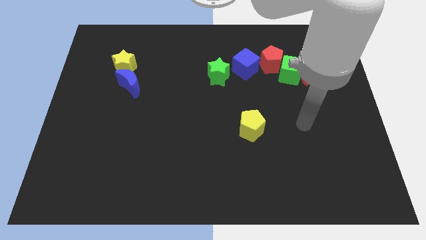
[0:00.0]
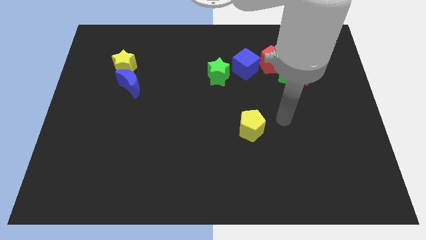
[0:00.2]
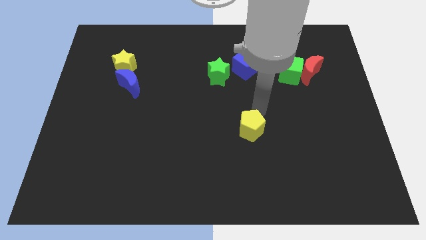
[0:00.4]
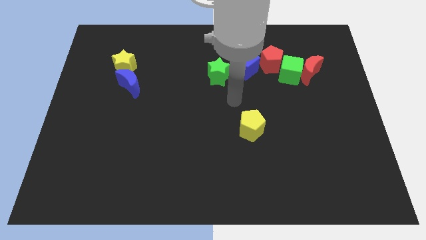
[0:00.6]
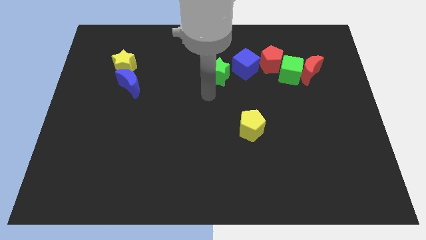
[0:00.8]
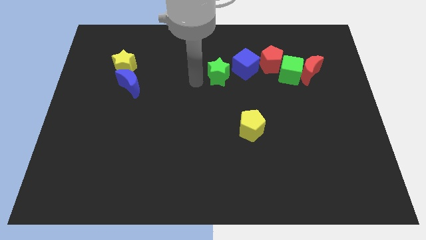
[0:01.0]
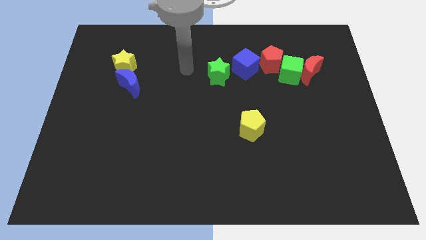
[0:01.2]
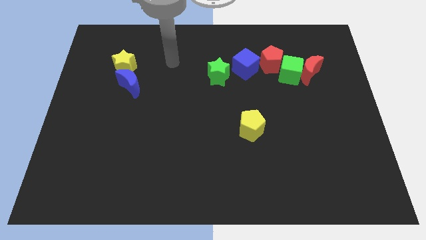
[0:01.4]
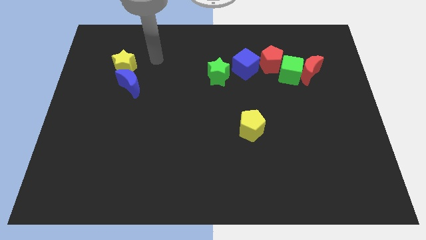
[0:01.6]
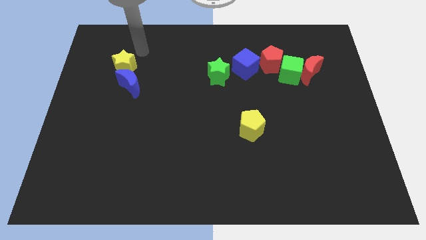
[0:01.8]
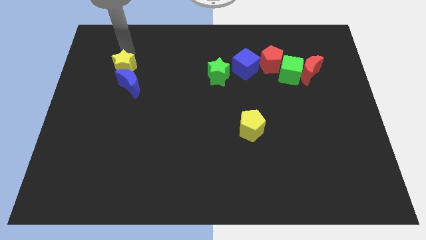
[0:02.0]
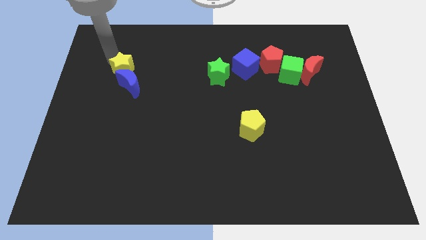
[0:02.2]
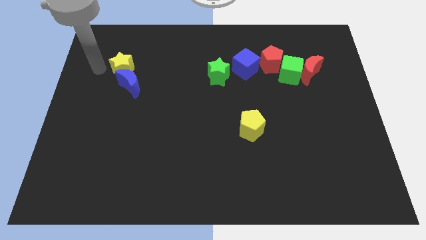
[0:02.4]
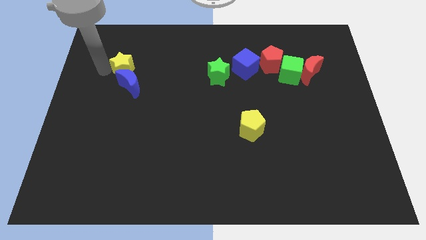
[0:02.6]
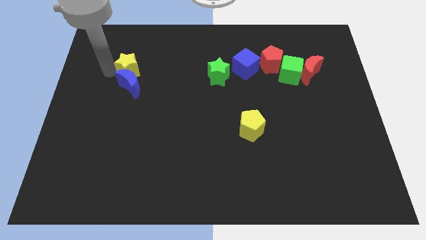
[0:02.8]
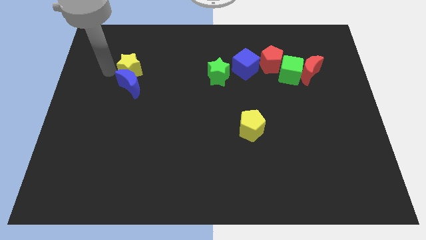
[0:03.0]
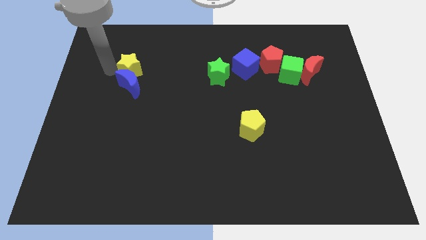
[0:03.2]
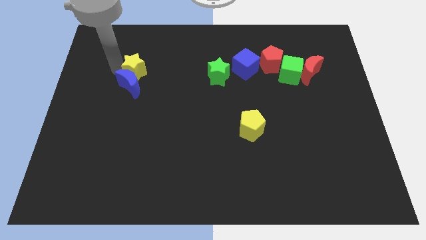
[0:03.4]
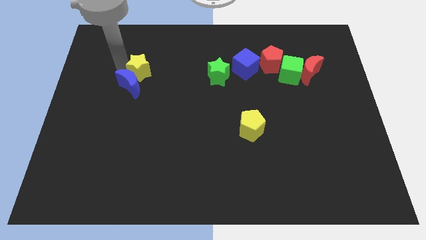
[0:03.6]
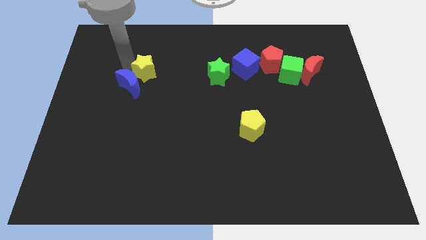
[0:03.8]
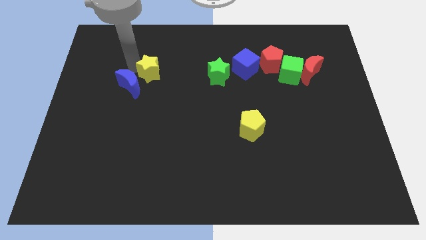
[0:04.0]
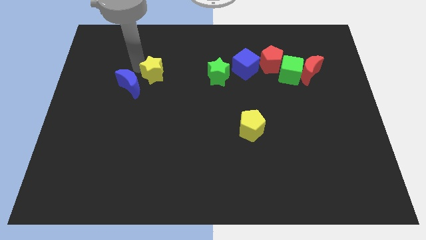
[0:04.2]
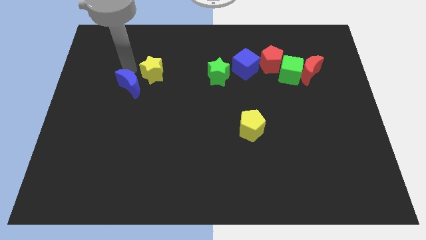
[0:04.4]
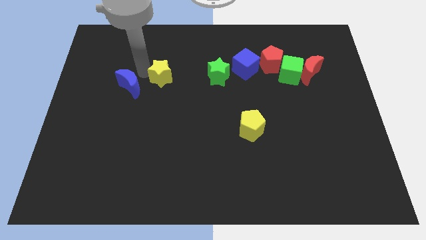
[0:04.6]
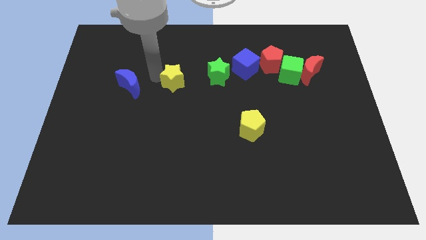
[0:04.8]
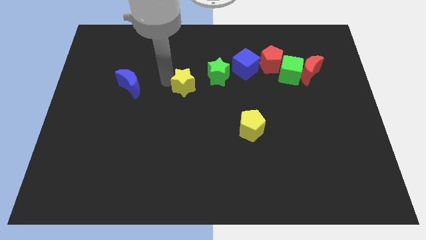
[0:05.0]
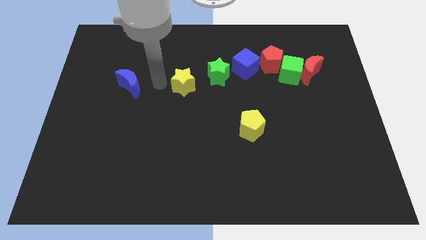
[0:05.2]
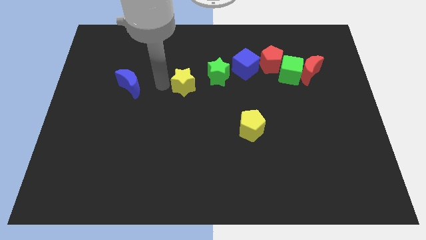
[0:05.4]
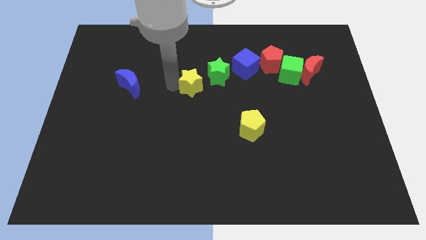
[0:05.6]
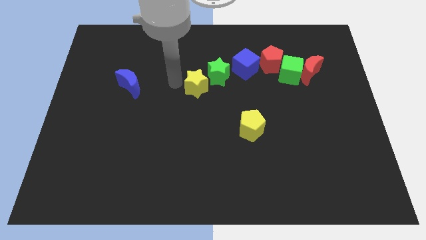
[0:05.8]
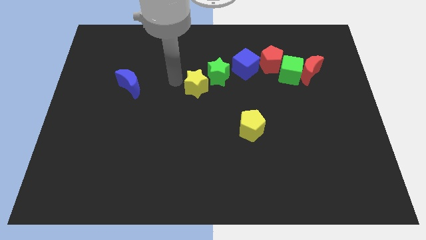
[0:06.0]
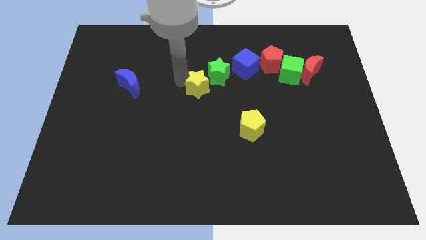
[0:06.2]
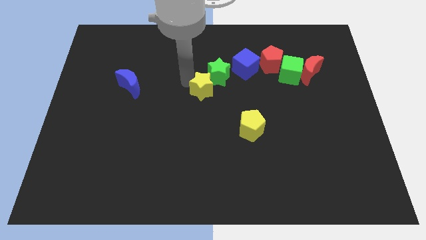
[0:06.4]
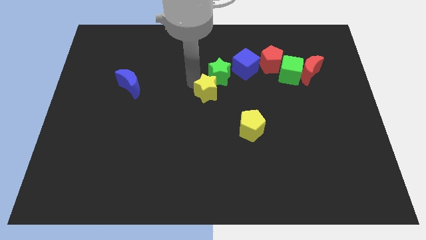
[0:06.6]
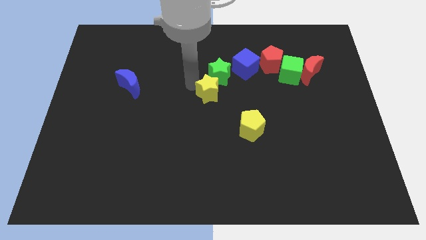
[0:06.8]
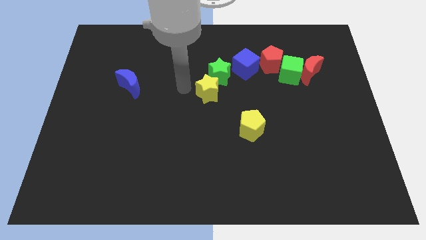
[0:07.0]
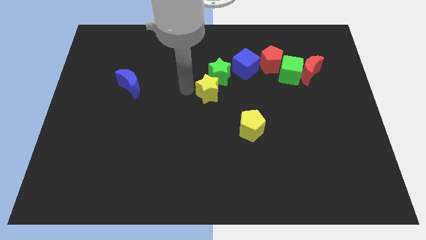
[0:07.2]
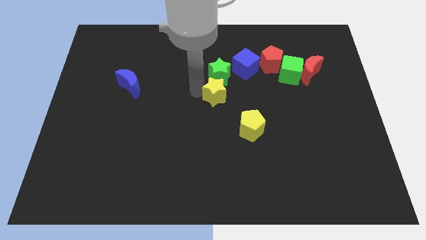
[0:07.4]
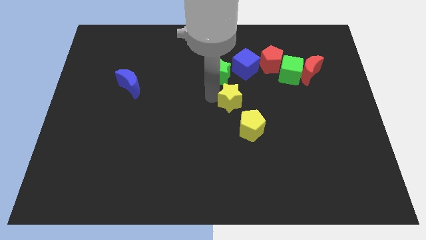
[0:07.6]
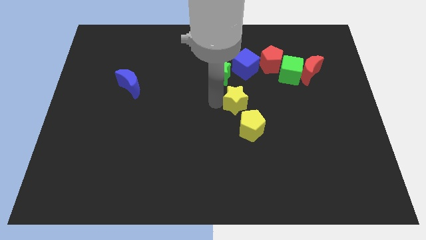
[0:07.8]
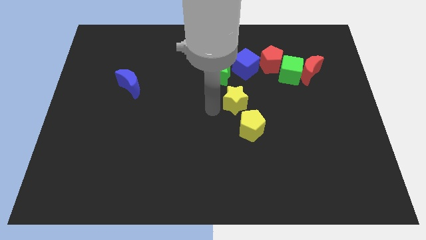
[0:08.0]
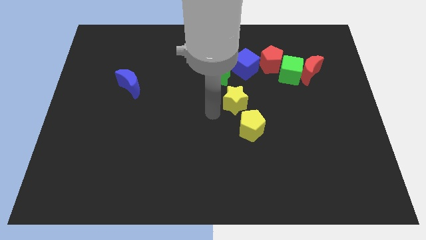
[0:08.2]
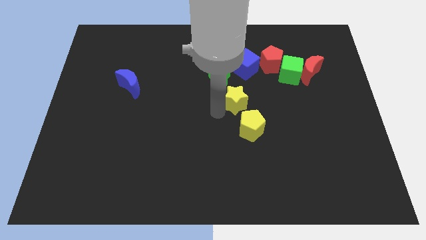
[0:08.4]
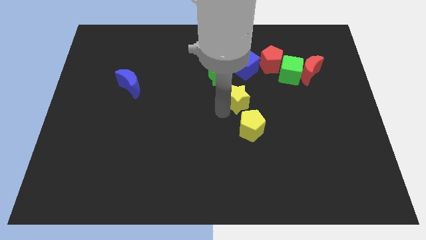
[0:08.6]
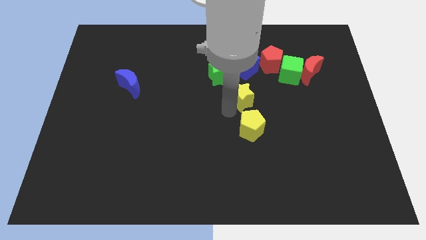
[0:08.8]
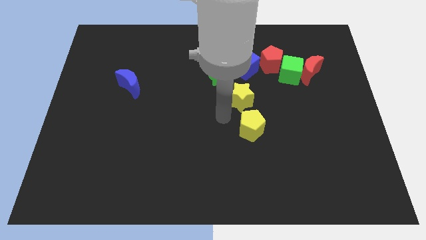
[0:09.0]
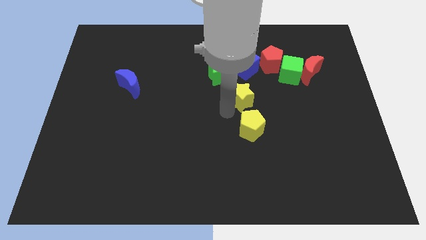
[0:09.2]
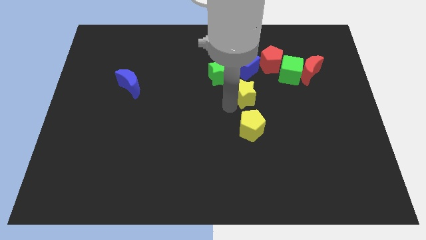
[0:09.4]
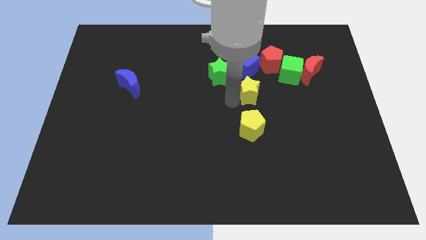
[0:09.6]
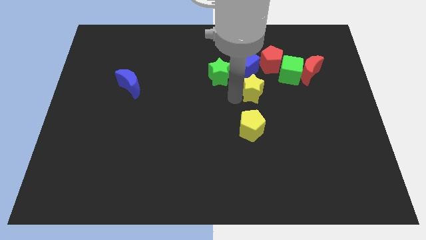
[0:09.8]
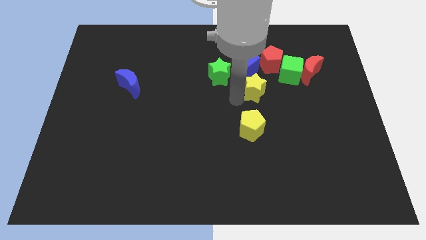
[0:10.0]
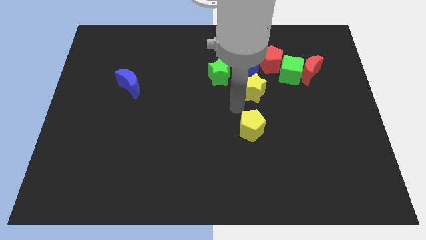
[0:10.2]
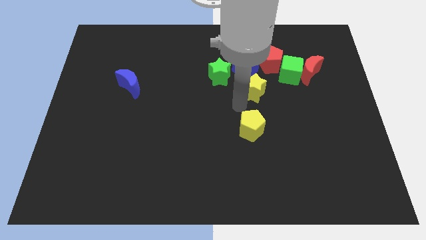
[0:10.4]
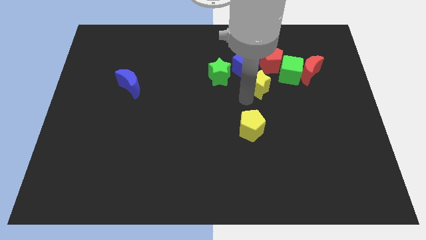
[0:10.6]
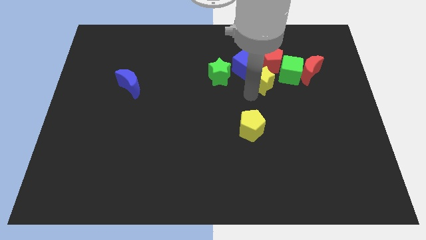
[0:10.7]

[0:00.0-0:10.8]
move the yellow star to the left of the red moon
